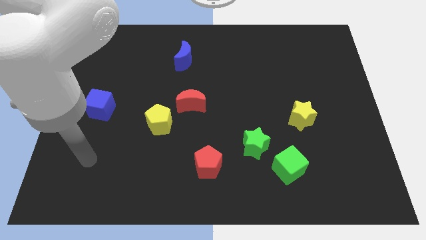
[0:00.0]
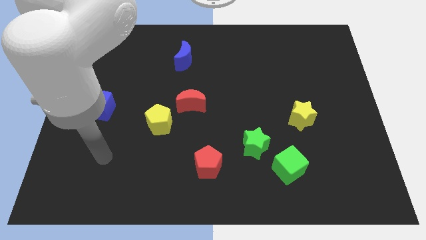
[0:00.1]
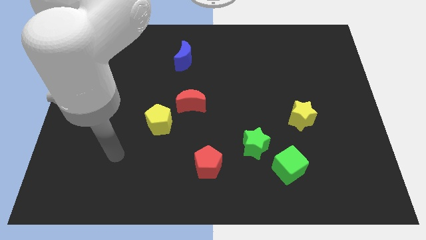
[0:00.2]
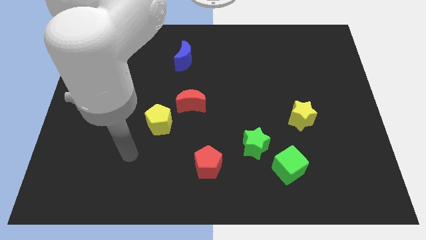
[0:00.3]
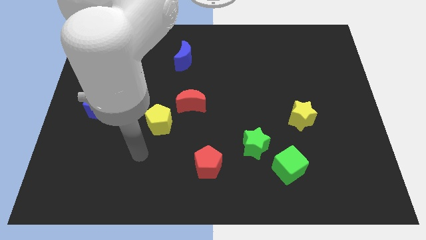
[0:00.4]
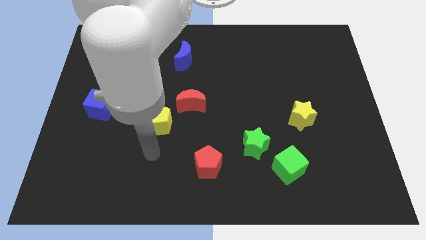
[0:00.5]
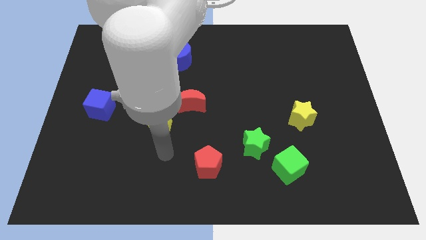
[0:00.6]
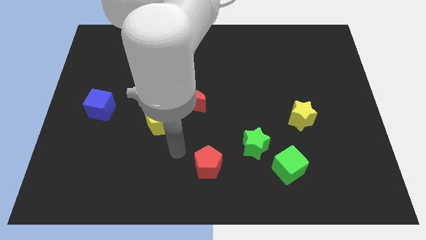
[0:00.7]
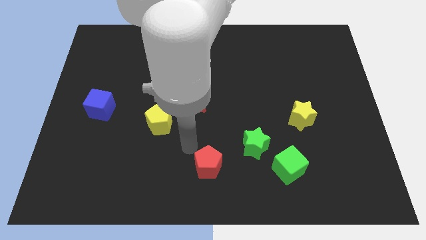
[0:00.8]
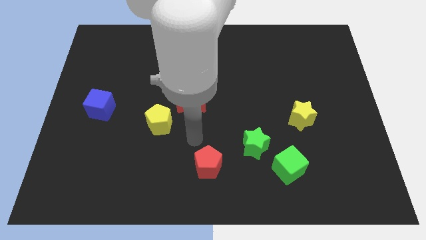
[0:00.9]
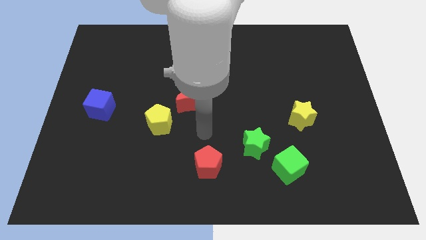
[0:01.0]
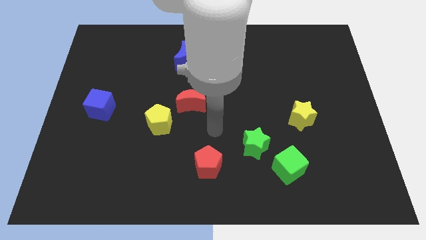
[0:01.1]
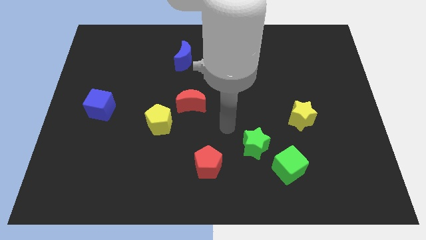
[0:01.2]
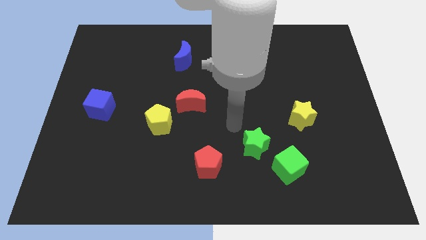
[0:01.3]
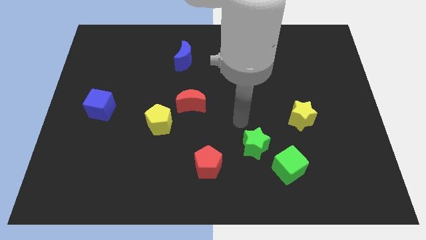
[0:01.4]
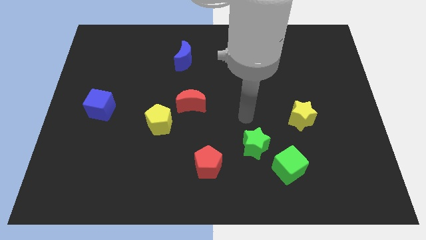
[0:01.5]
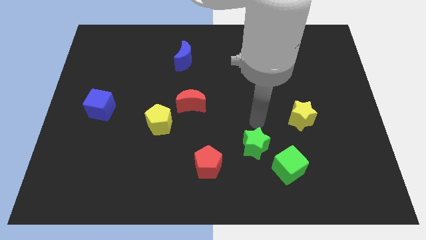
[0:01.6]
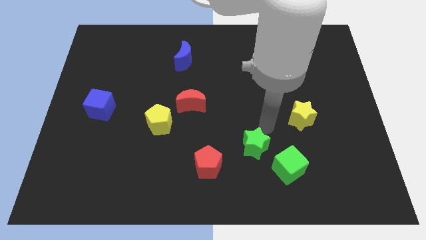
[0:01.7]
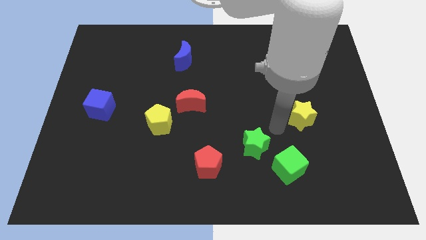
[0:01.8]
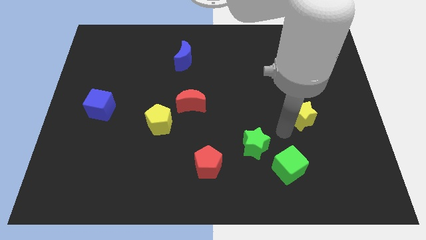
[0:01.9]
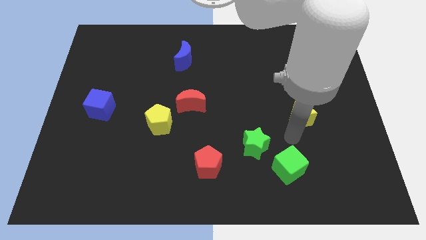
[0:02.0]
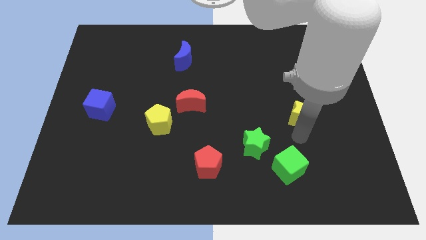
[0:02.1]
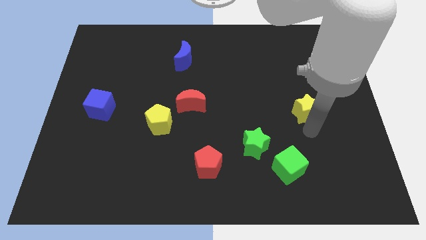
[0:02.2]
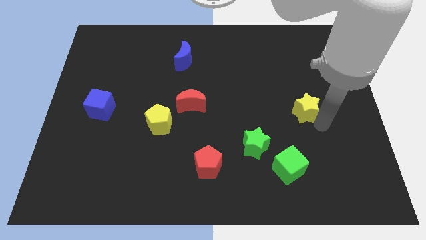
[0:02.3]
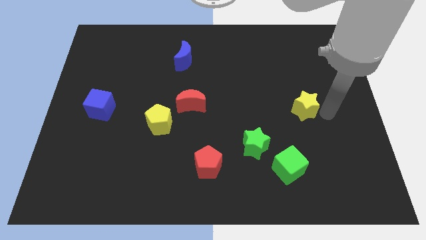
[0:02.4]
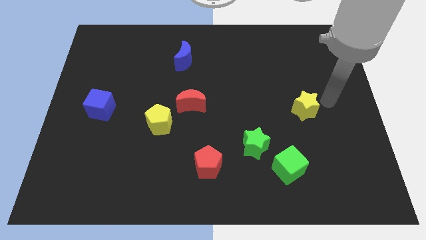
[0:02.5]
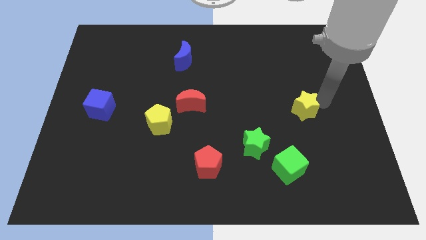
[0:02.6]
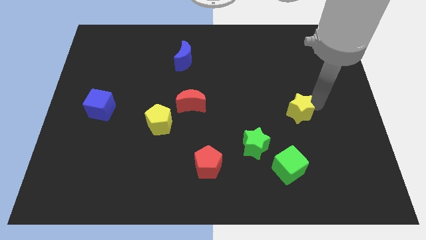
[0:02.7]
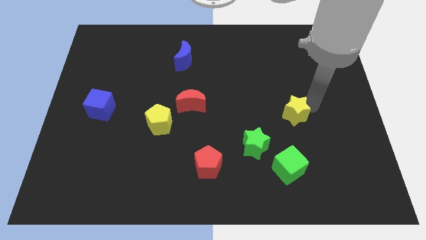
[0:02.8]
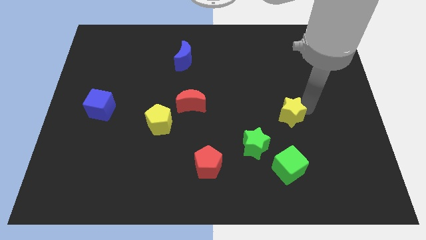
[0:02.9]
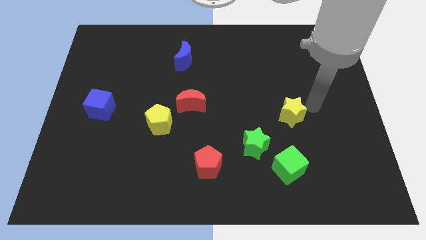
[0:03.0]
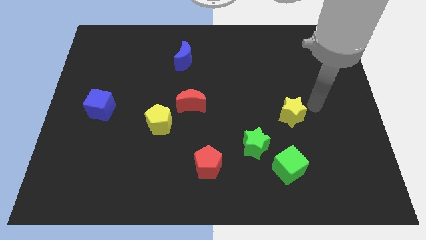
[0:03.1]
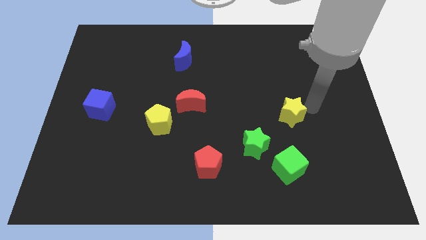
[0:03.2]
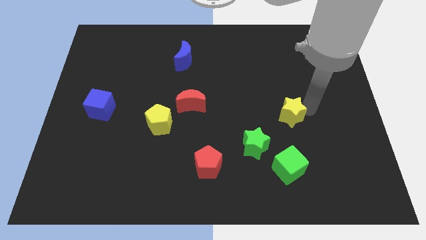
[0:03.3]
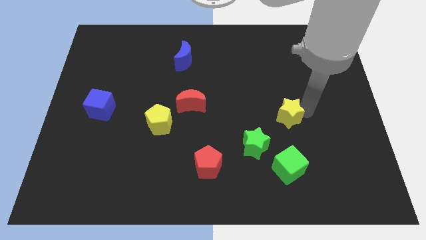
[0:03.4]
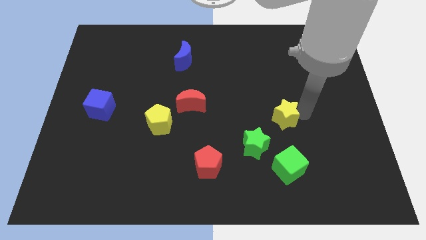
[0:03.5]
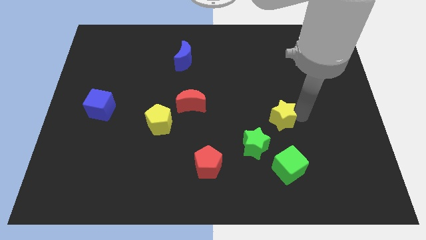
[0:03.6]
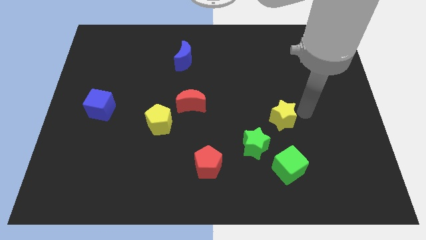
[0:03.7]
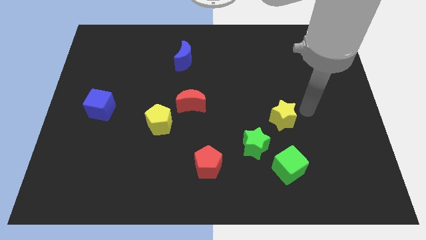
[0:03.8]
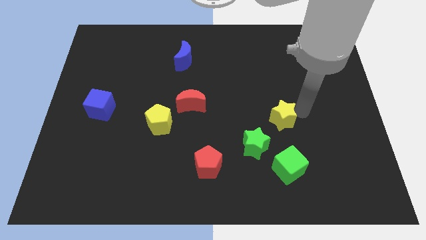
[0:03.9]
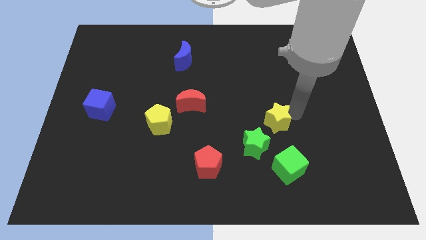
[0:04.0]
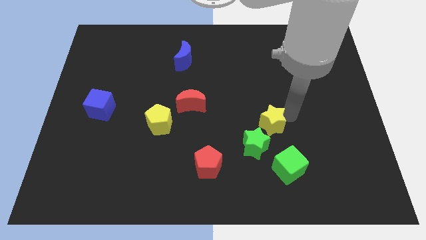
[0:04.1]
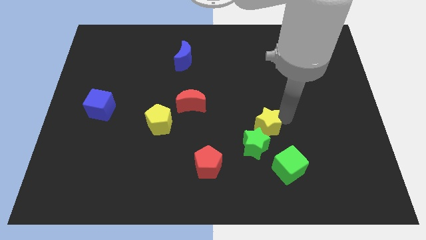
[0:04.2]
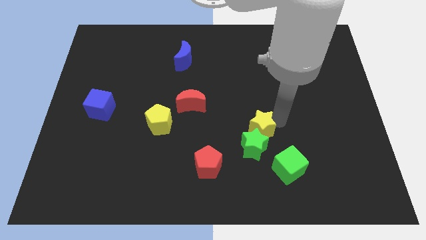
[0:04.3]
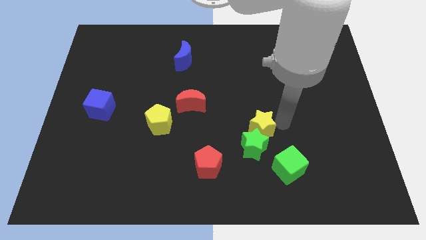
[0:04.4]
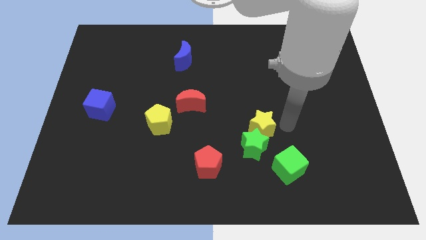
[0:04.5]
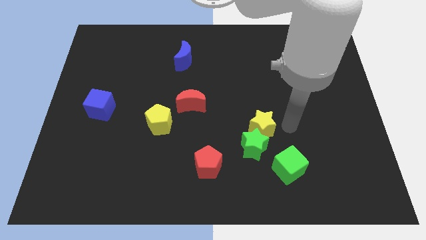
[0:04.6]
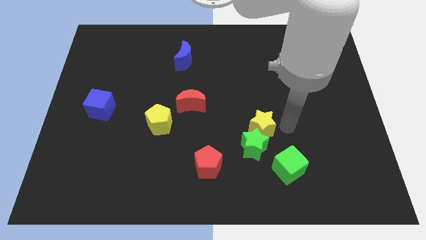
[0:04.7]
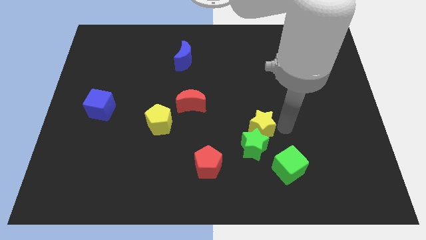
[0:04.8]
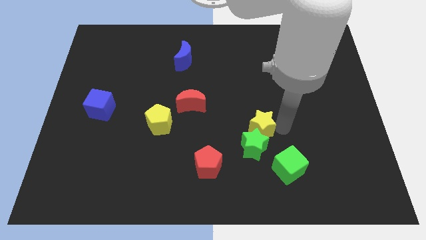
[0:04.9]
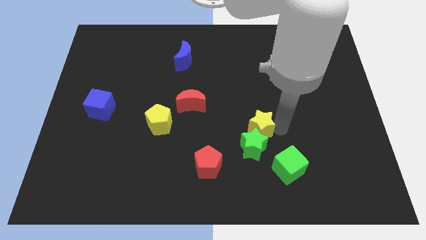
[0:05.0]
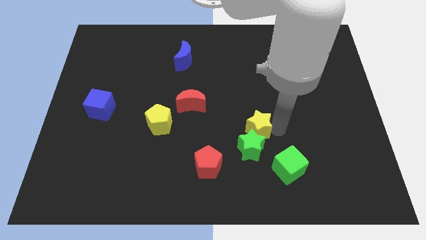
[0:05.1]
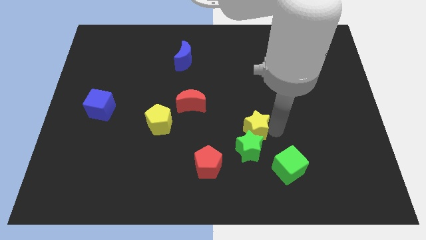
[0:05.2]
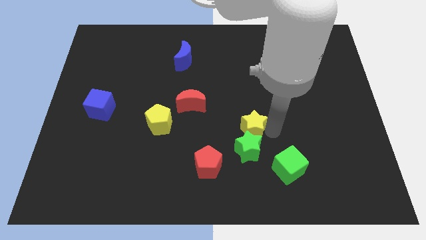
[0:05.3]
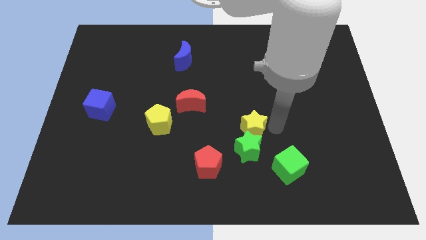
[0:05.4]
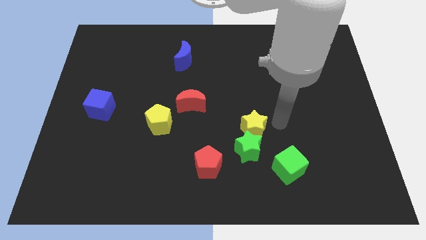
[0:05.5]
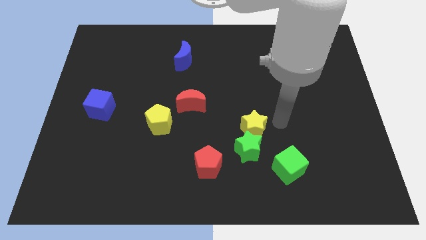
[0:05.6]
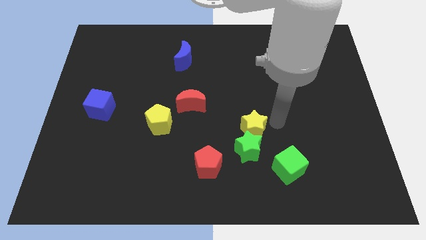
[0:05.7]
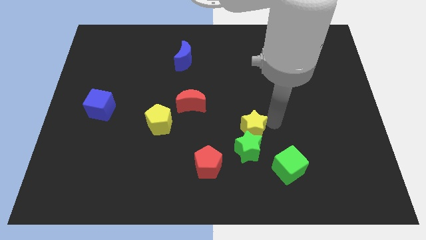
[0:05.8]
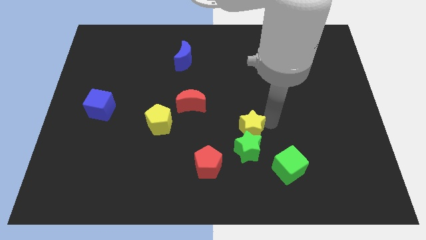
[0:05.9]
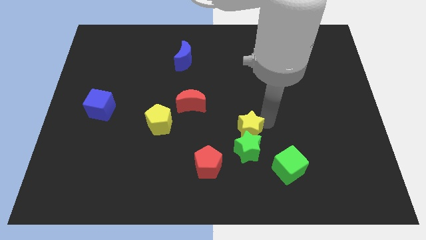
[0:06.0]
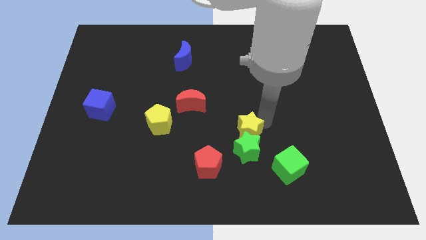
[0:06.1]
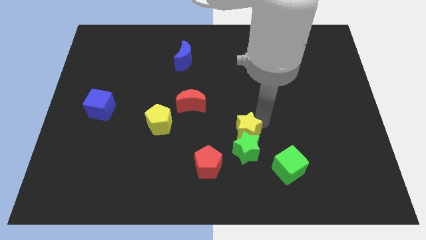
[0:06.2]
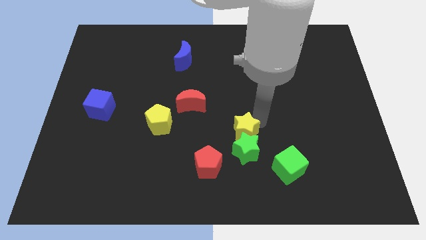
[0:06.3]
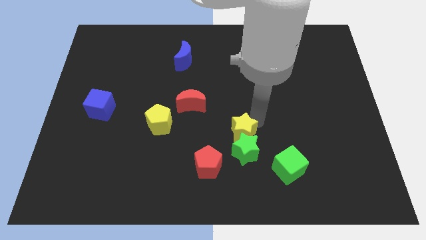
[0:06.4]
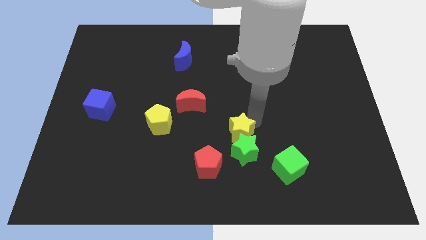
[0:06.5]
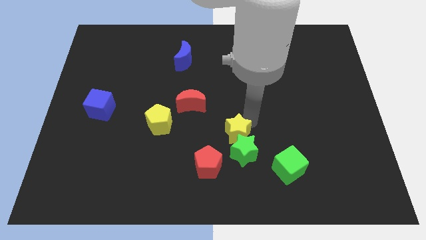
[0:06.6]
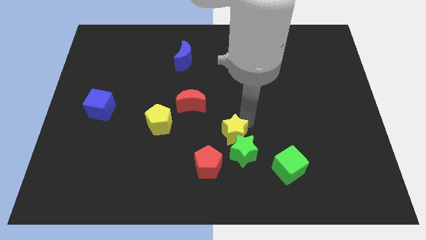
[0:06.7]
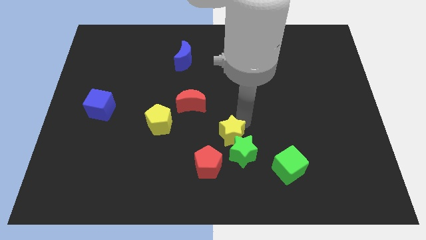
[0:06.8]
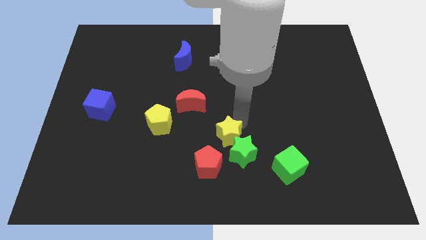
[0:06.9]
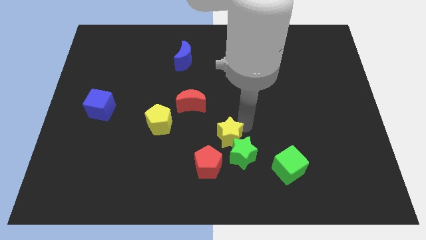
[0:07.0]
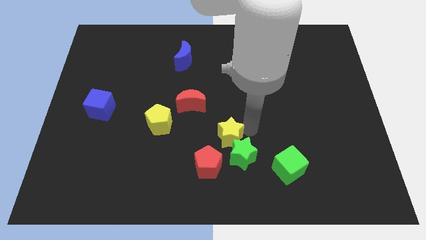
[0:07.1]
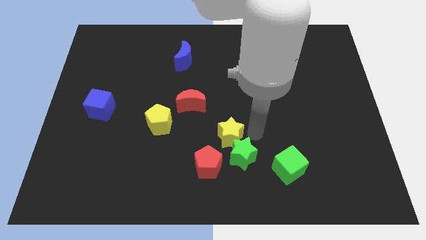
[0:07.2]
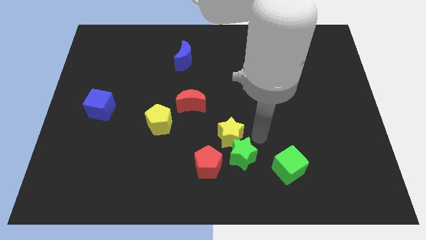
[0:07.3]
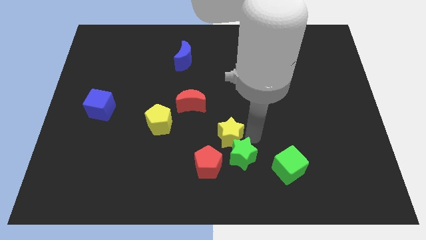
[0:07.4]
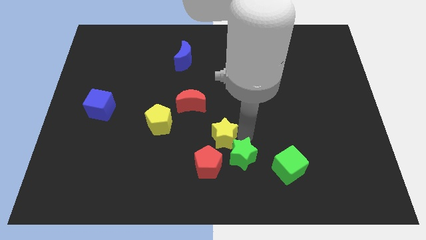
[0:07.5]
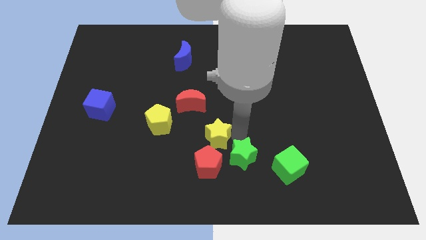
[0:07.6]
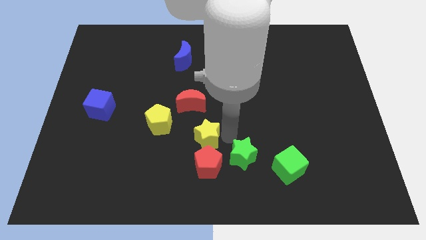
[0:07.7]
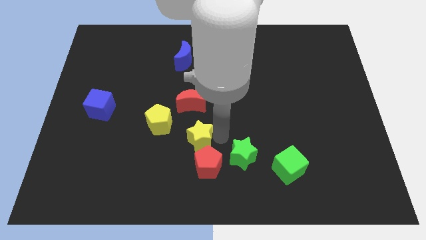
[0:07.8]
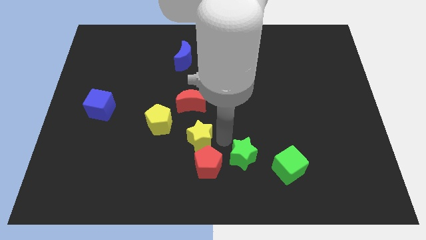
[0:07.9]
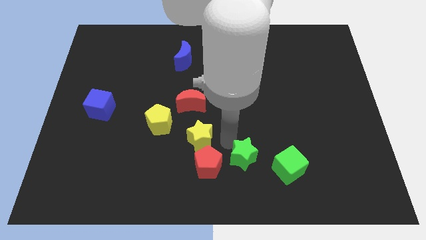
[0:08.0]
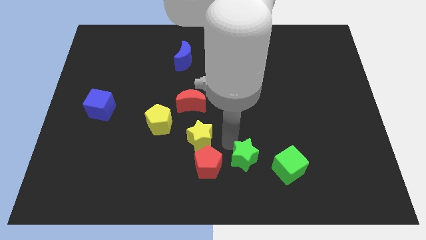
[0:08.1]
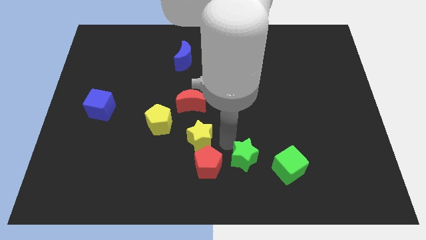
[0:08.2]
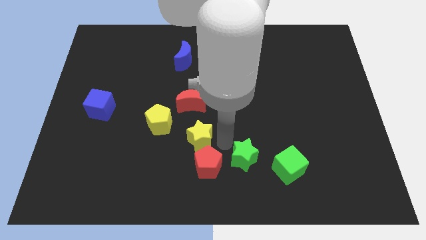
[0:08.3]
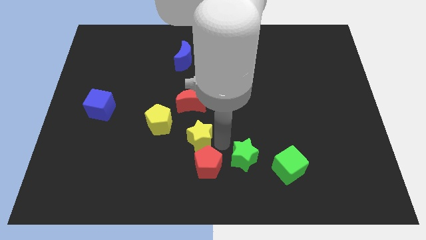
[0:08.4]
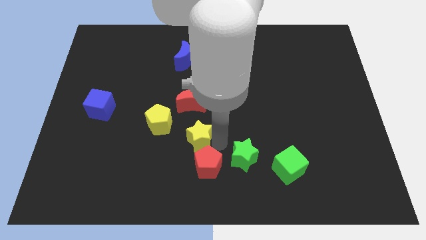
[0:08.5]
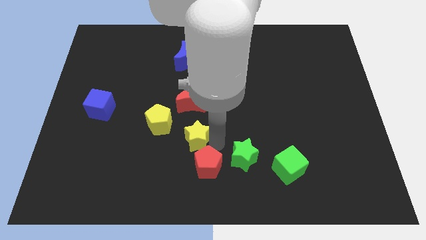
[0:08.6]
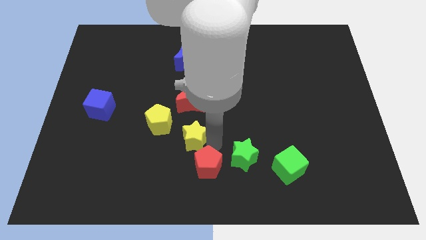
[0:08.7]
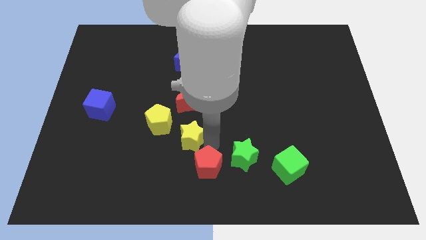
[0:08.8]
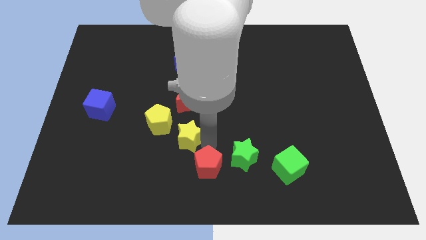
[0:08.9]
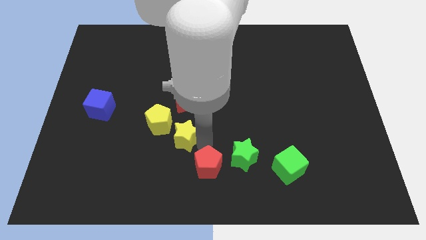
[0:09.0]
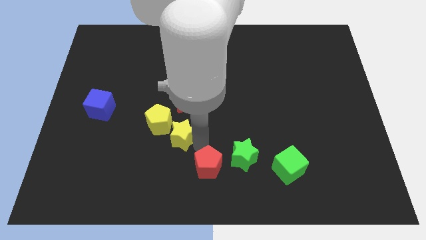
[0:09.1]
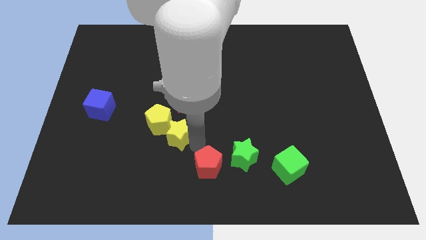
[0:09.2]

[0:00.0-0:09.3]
slide the yellow star next to the yellow pentagon
